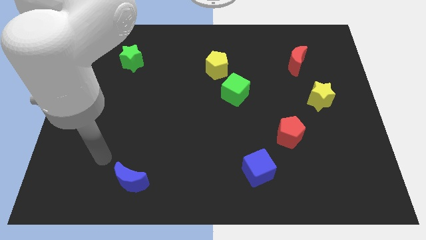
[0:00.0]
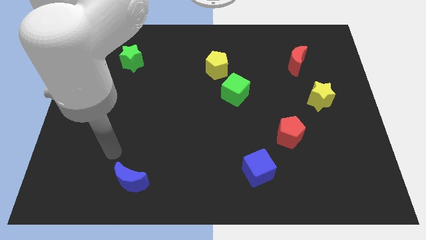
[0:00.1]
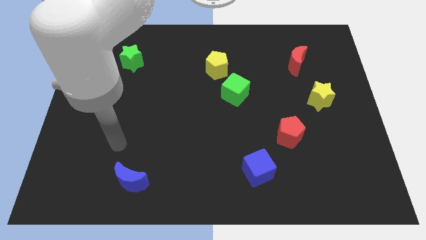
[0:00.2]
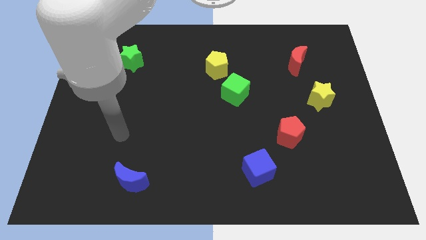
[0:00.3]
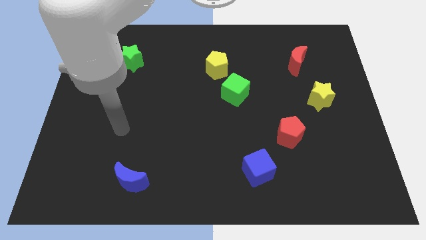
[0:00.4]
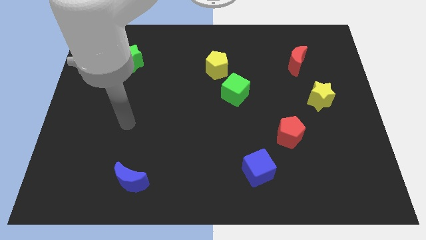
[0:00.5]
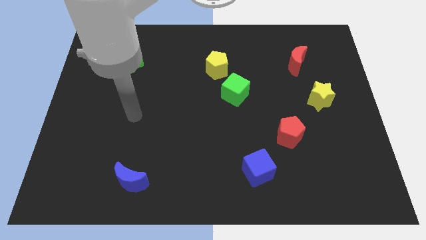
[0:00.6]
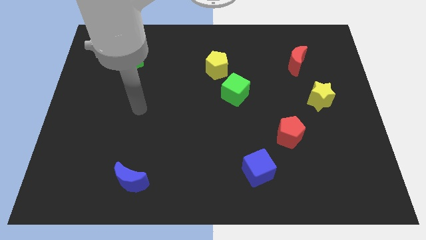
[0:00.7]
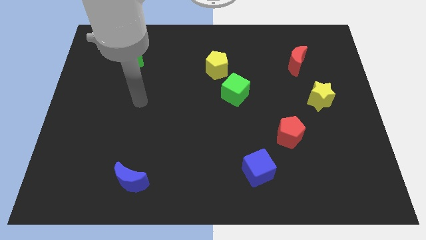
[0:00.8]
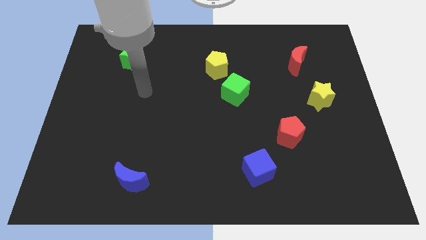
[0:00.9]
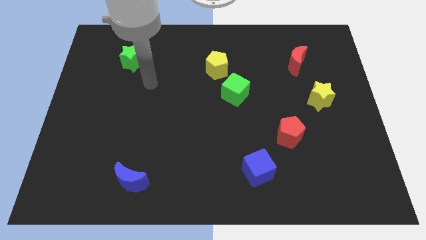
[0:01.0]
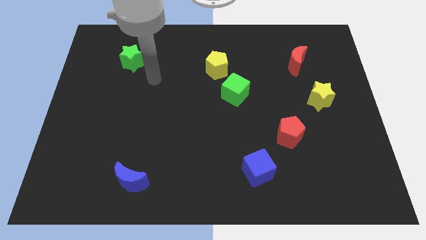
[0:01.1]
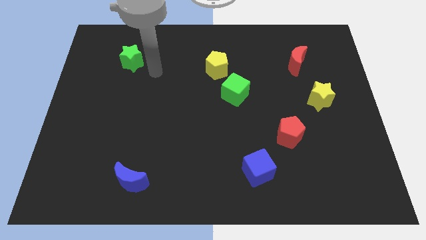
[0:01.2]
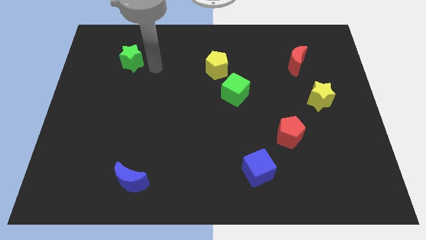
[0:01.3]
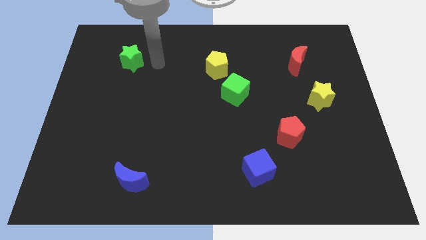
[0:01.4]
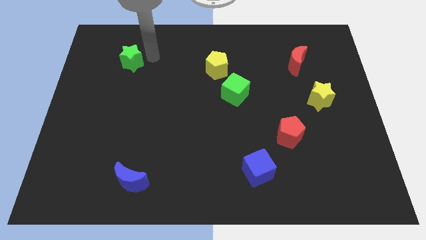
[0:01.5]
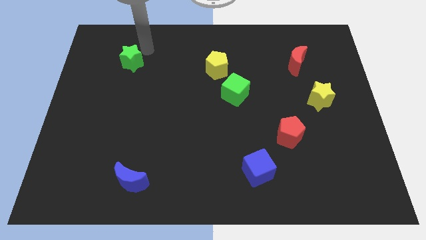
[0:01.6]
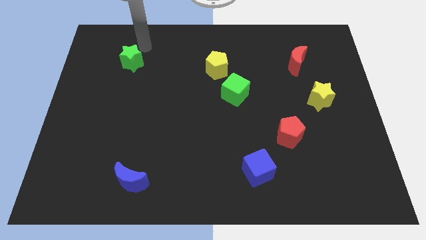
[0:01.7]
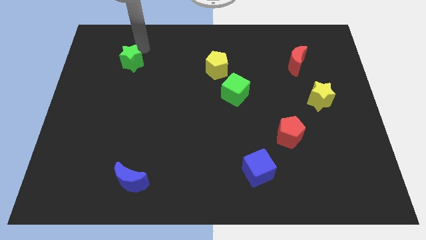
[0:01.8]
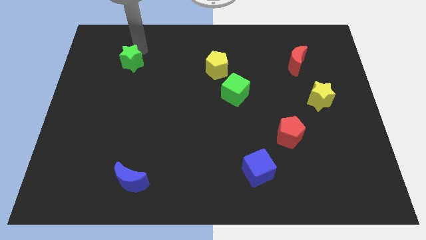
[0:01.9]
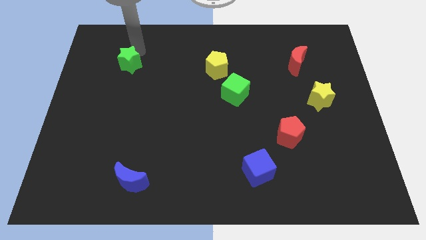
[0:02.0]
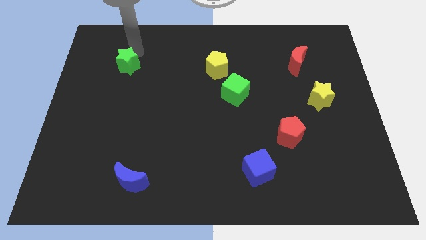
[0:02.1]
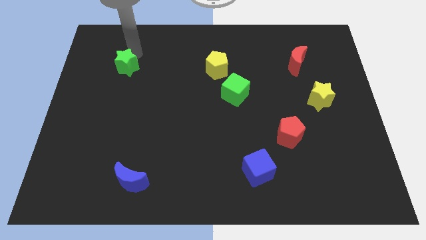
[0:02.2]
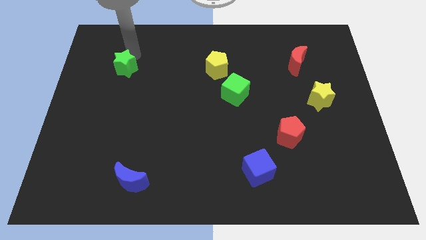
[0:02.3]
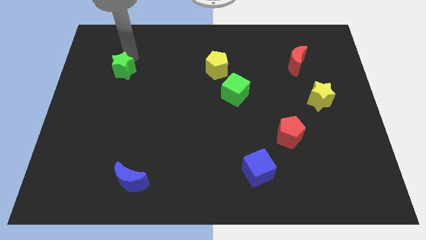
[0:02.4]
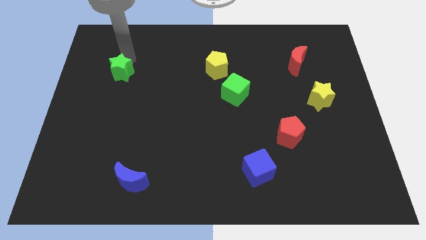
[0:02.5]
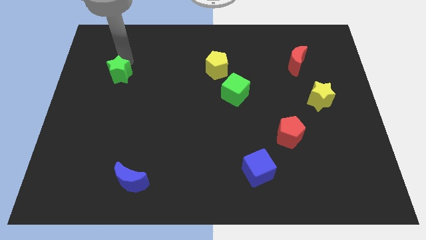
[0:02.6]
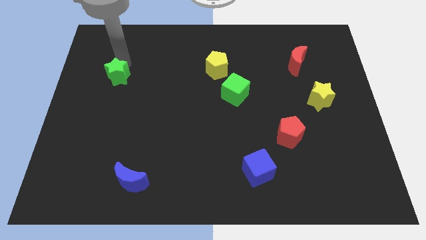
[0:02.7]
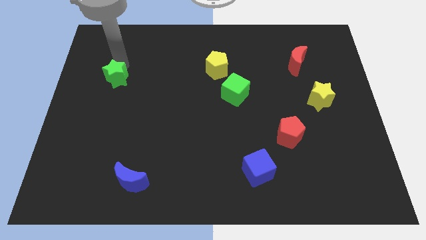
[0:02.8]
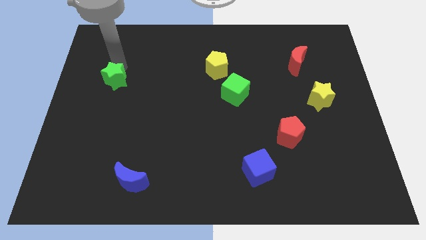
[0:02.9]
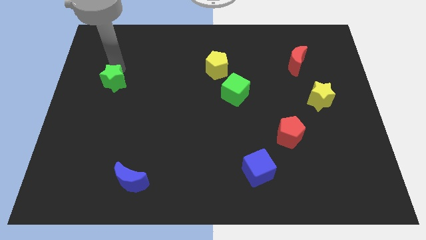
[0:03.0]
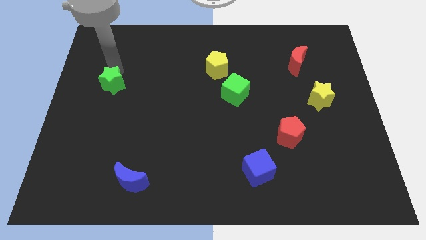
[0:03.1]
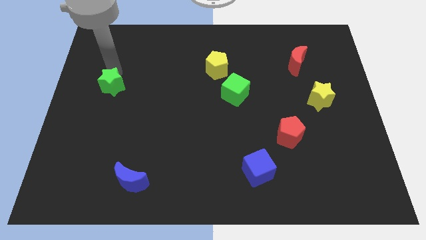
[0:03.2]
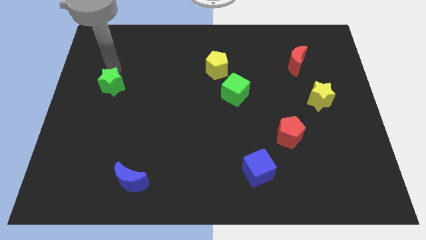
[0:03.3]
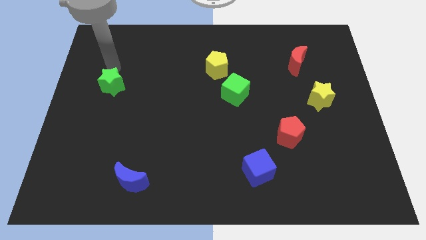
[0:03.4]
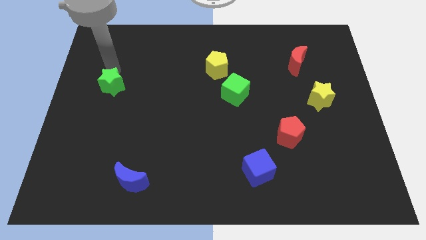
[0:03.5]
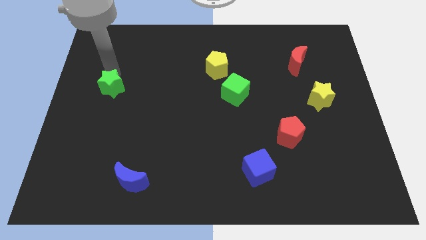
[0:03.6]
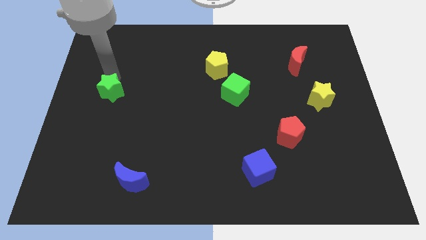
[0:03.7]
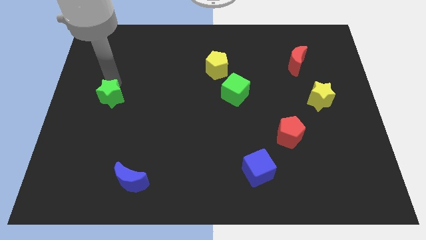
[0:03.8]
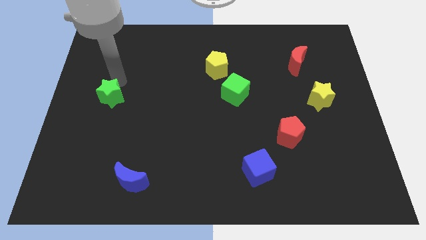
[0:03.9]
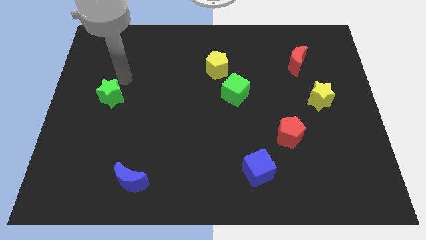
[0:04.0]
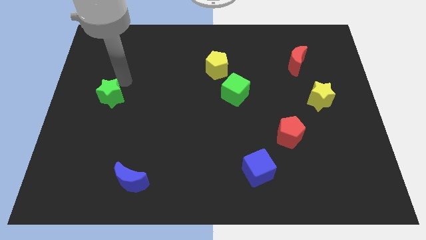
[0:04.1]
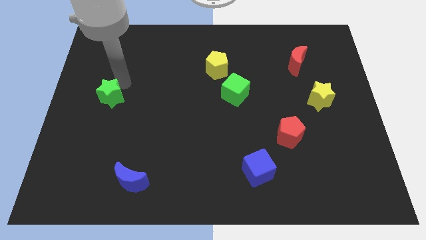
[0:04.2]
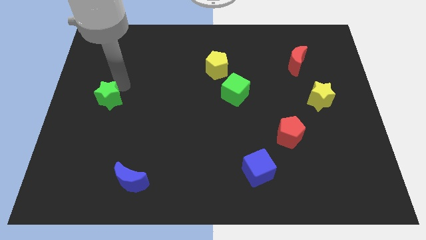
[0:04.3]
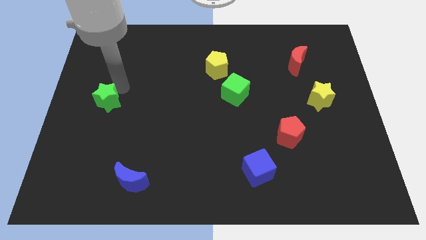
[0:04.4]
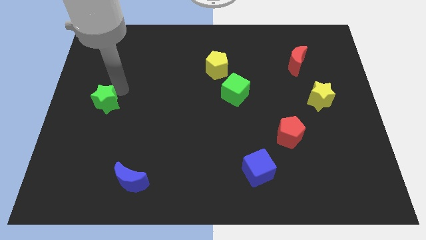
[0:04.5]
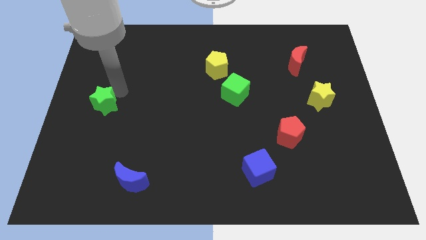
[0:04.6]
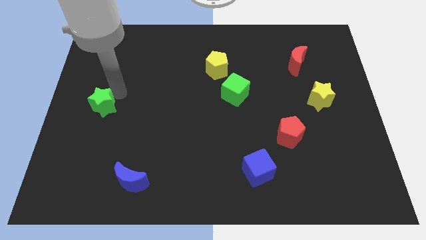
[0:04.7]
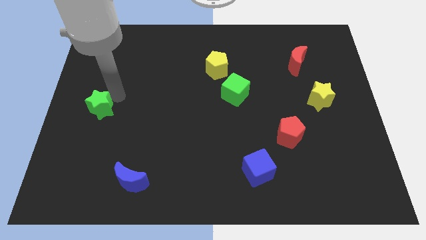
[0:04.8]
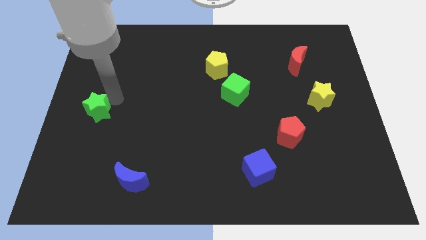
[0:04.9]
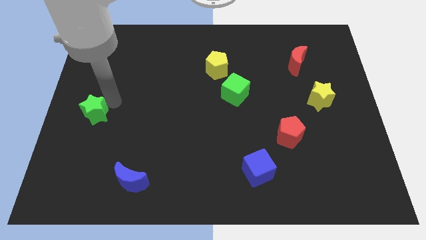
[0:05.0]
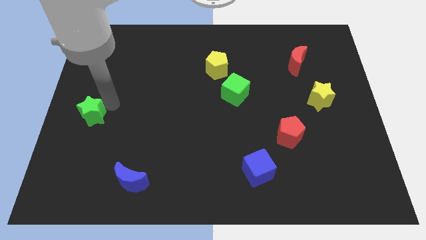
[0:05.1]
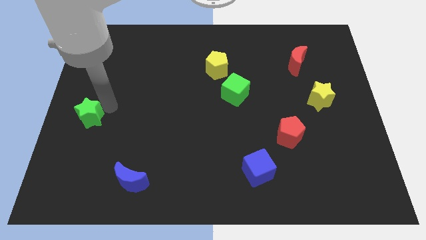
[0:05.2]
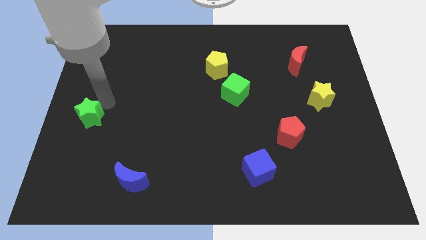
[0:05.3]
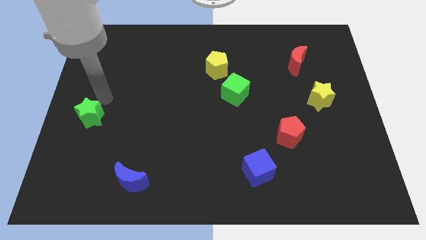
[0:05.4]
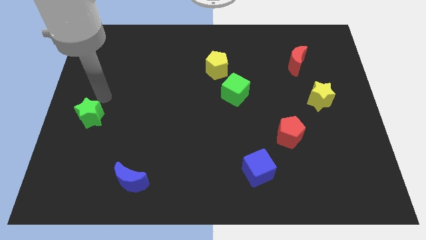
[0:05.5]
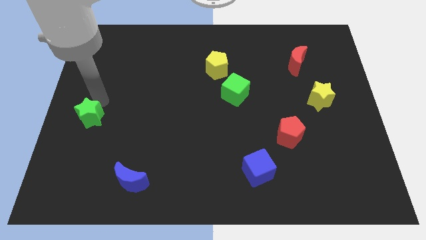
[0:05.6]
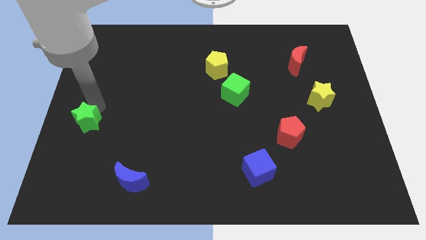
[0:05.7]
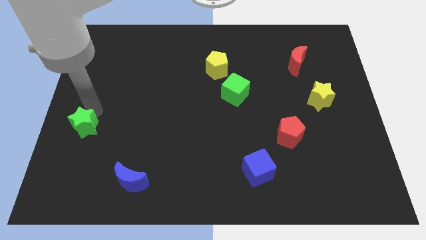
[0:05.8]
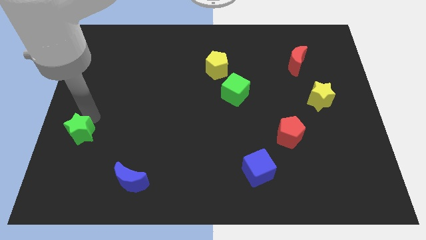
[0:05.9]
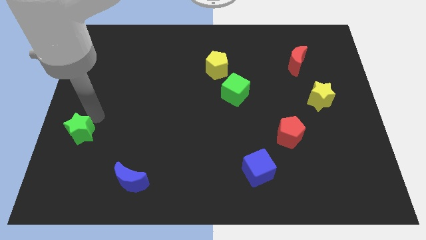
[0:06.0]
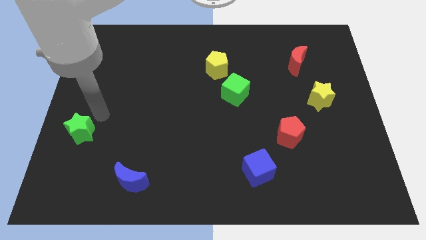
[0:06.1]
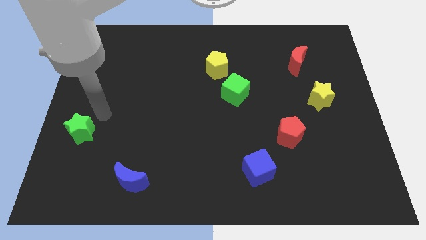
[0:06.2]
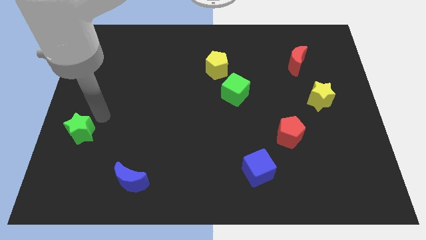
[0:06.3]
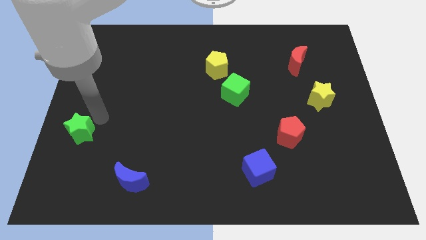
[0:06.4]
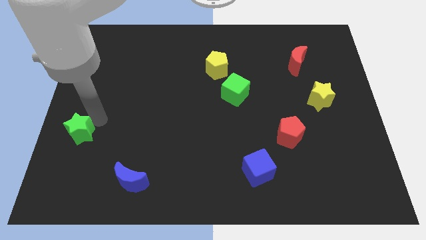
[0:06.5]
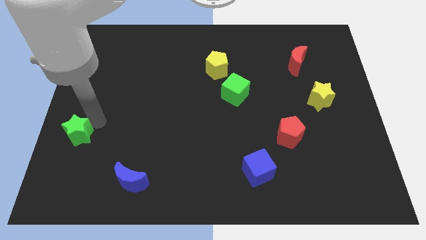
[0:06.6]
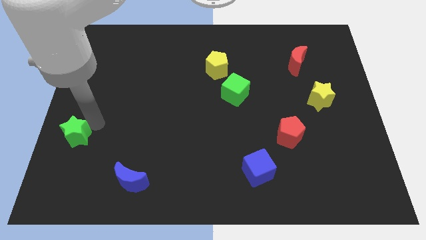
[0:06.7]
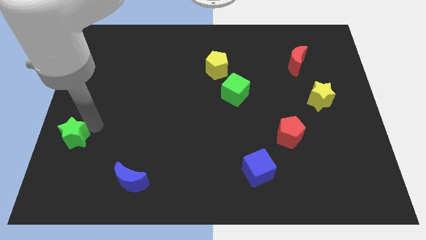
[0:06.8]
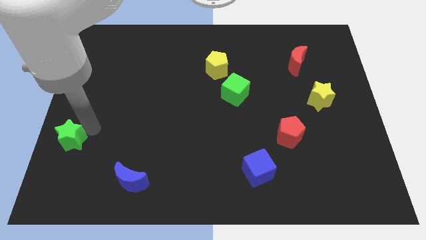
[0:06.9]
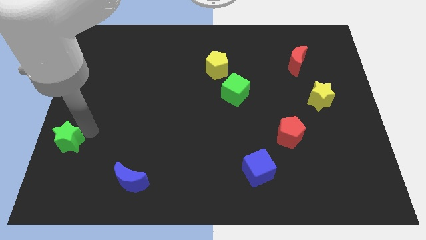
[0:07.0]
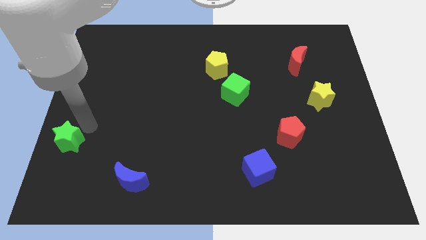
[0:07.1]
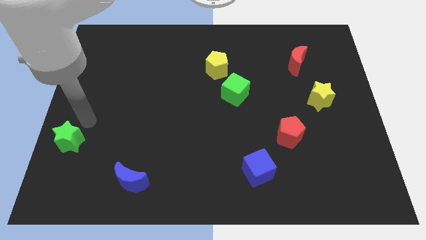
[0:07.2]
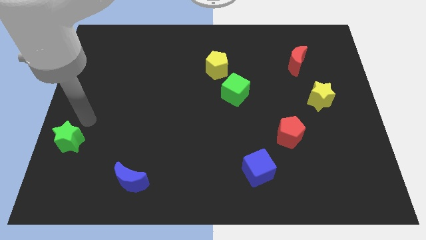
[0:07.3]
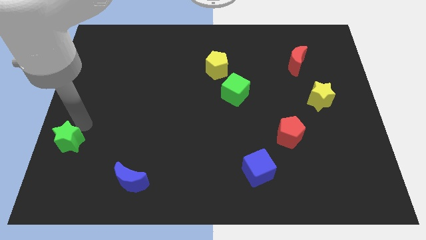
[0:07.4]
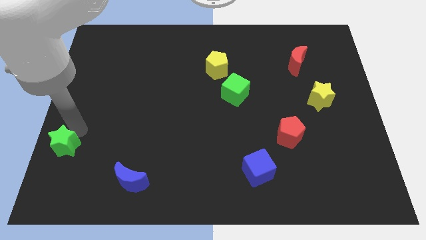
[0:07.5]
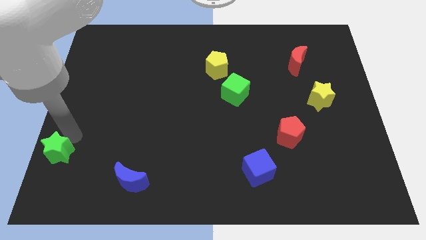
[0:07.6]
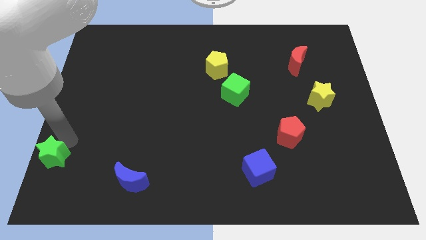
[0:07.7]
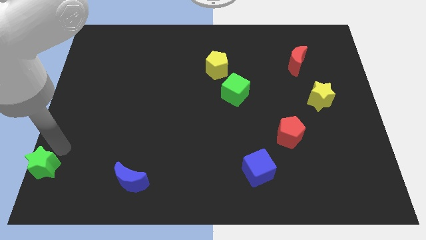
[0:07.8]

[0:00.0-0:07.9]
move the green star to the bottom left corner
